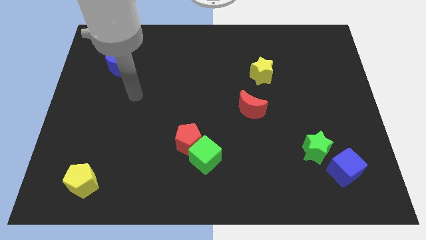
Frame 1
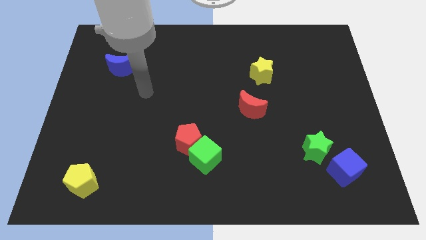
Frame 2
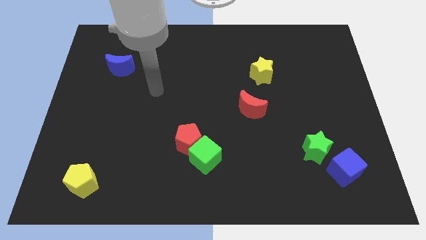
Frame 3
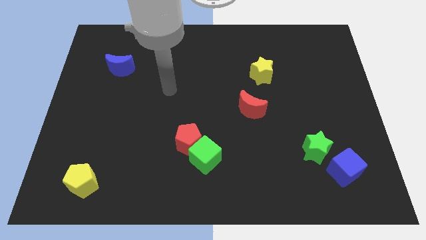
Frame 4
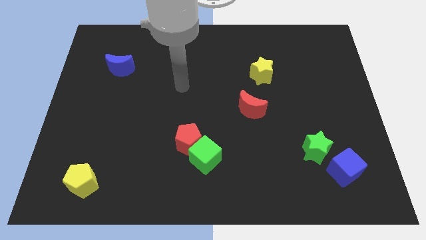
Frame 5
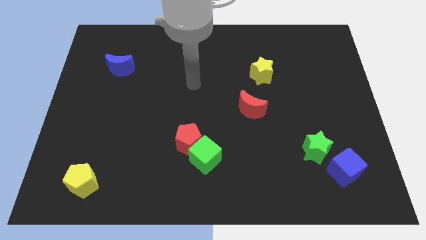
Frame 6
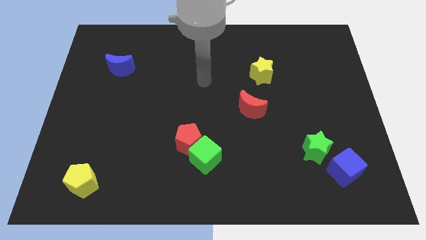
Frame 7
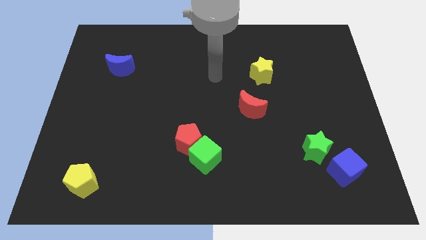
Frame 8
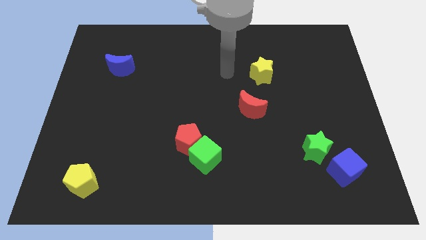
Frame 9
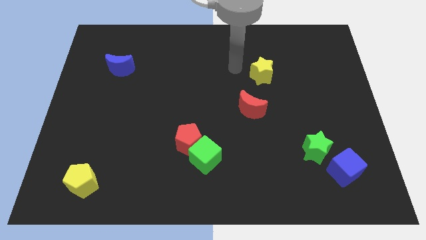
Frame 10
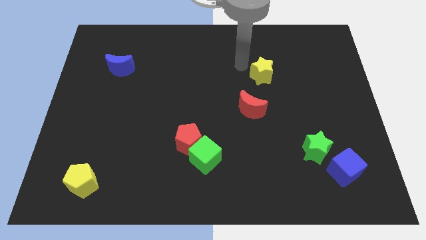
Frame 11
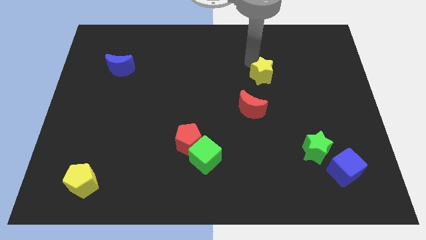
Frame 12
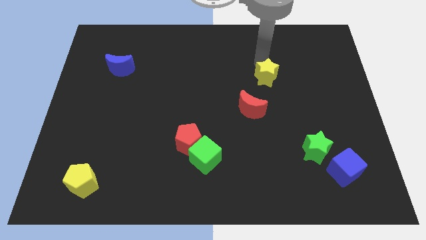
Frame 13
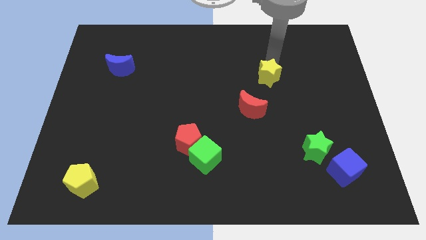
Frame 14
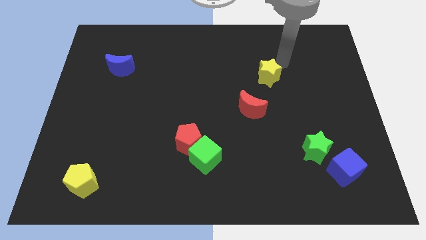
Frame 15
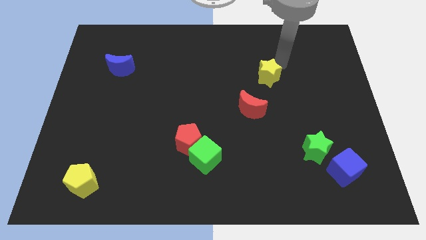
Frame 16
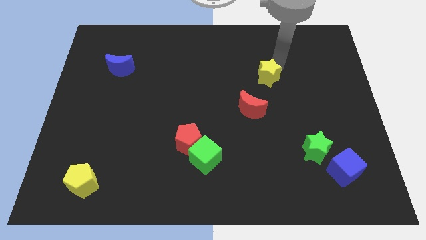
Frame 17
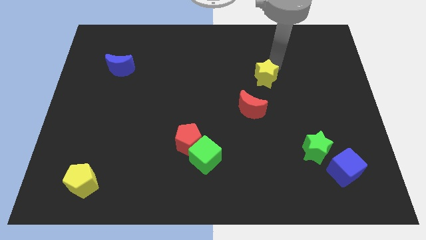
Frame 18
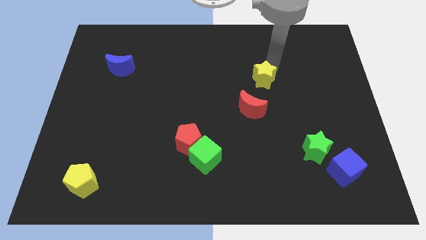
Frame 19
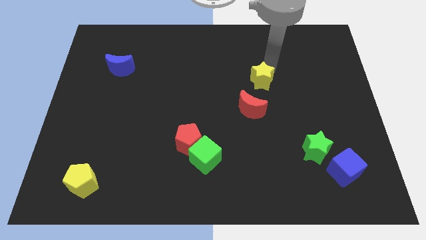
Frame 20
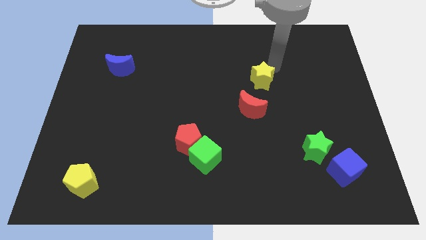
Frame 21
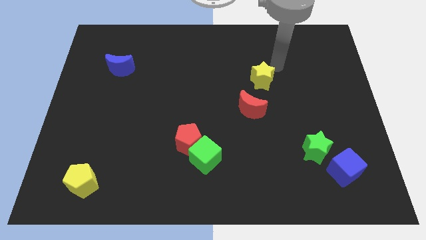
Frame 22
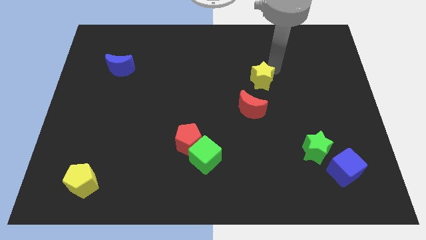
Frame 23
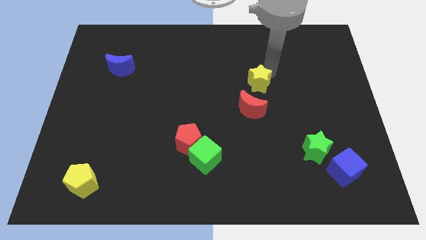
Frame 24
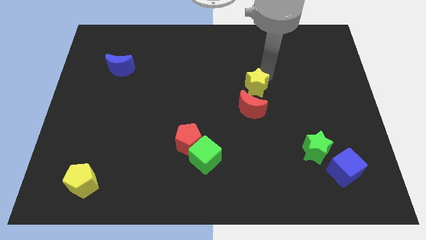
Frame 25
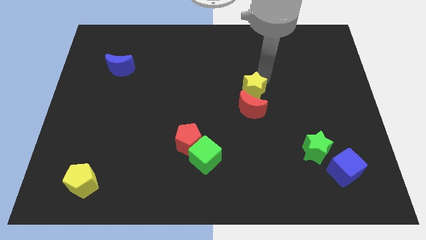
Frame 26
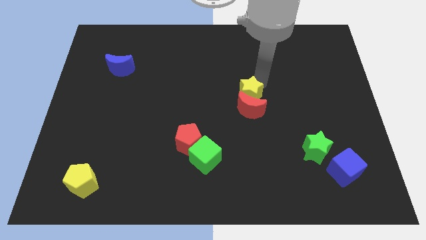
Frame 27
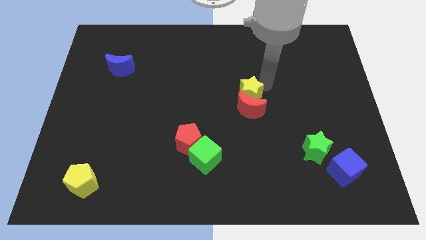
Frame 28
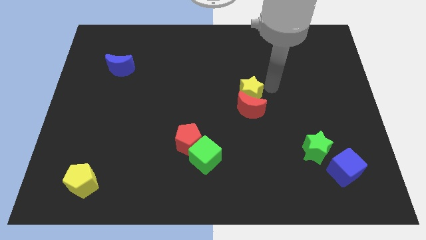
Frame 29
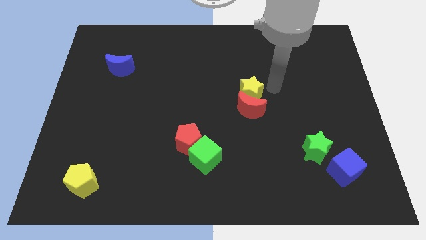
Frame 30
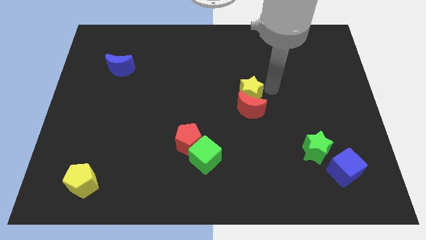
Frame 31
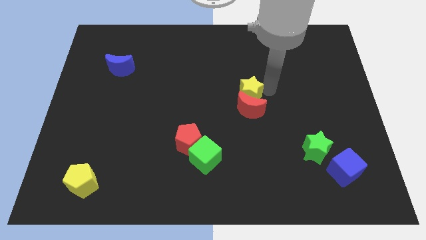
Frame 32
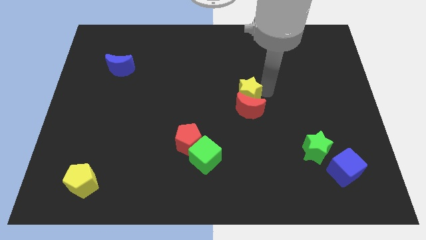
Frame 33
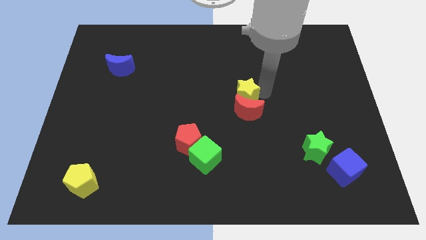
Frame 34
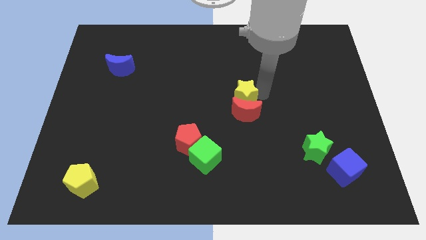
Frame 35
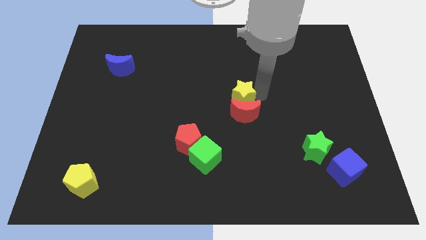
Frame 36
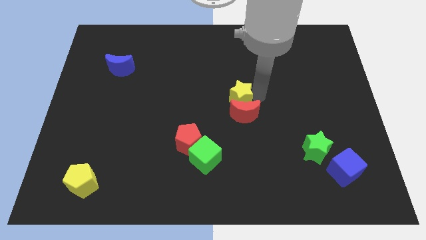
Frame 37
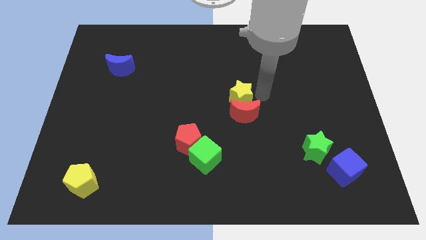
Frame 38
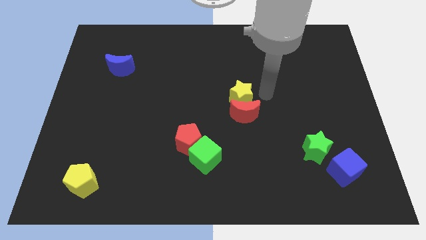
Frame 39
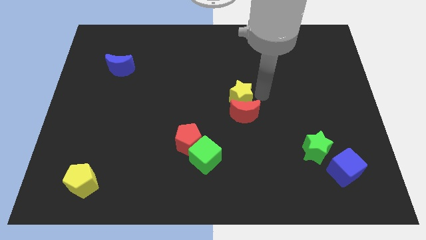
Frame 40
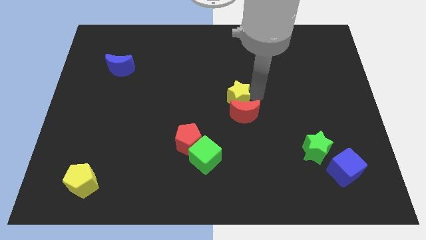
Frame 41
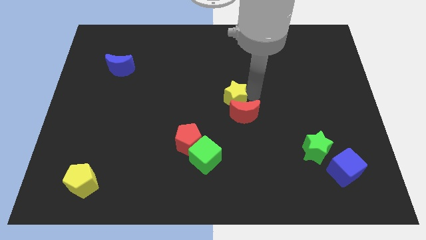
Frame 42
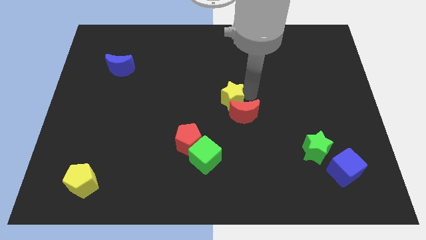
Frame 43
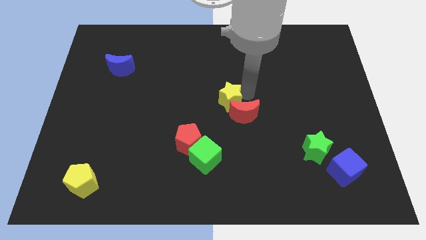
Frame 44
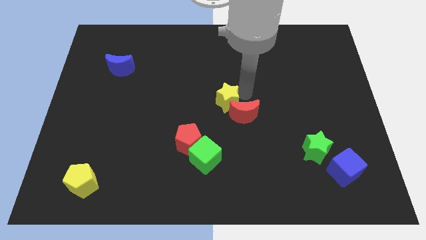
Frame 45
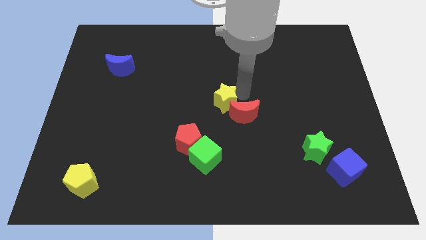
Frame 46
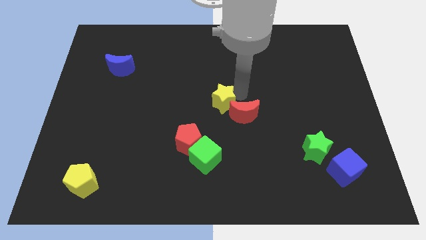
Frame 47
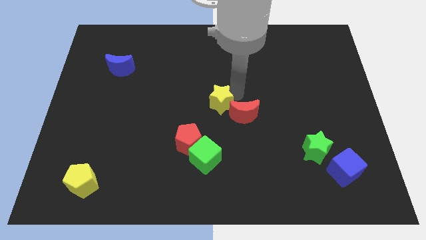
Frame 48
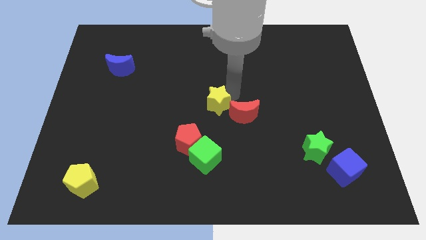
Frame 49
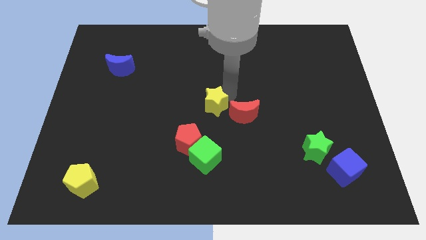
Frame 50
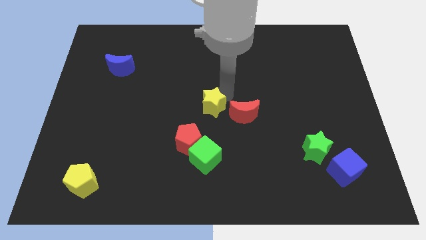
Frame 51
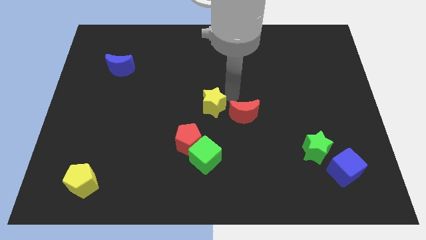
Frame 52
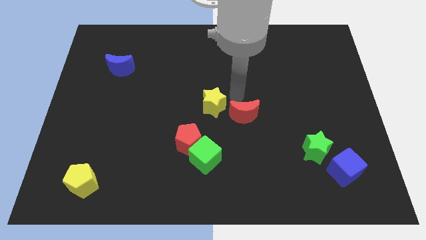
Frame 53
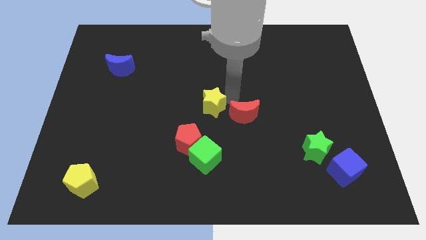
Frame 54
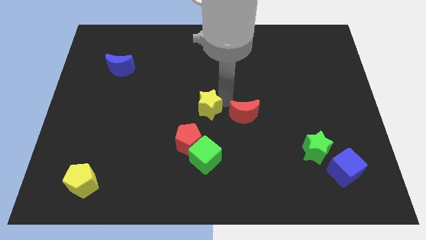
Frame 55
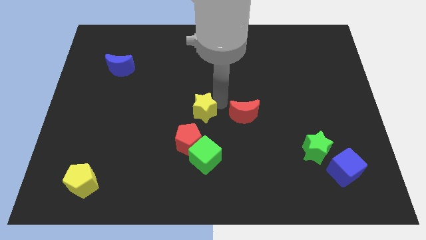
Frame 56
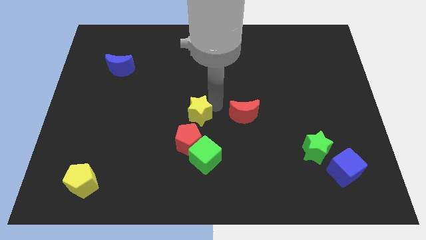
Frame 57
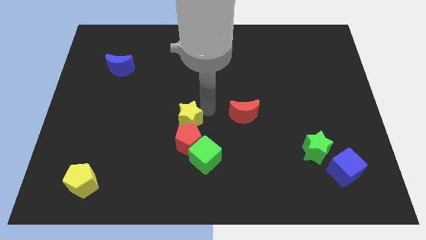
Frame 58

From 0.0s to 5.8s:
put the yellow star diagonally up and to the left of the red pentagon

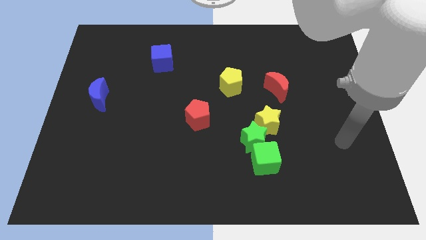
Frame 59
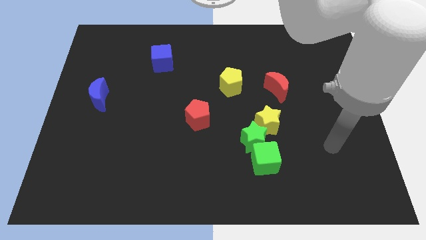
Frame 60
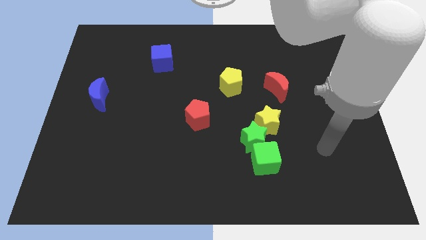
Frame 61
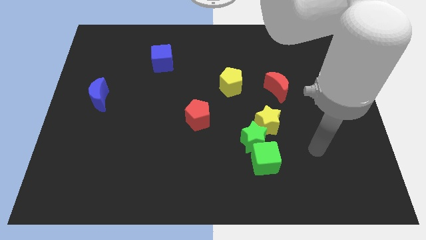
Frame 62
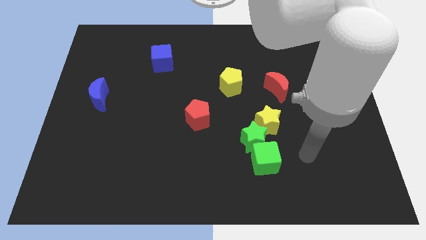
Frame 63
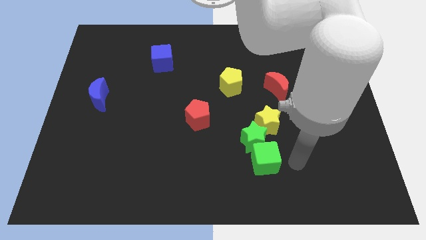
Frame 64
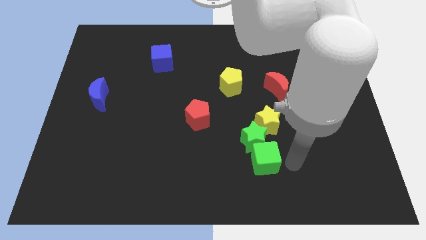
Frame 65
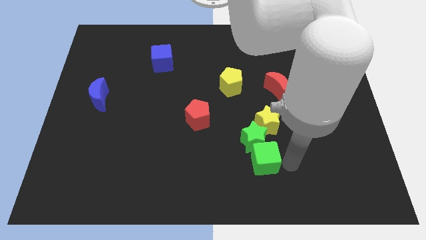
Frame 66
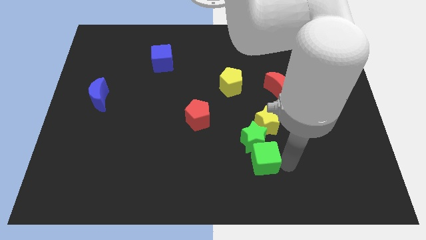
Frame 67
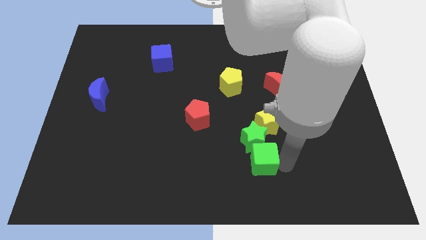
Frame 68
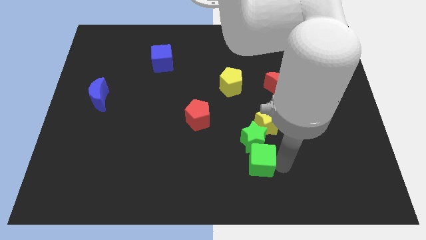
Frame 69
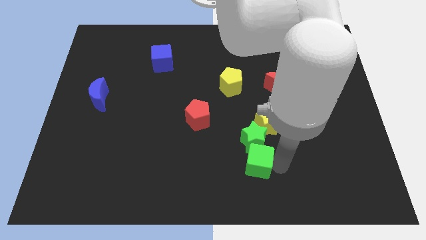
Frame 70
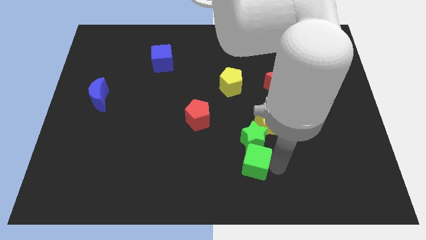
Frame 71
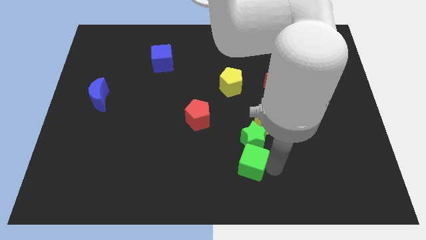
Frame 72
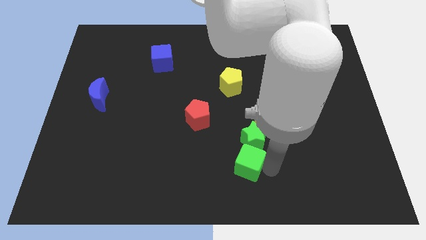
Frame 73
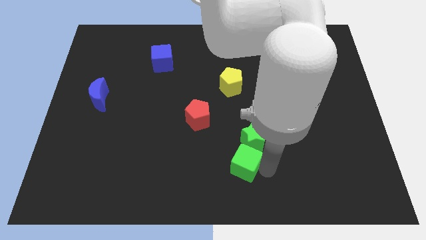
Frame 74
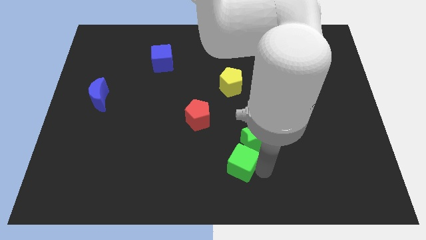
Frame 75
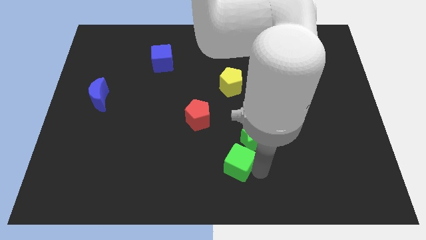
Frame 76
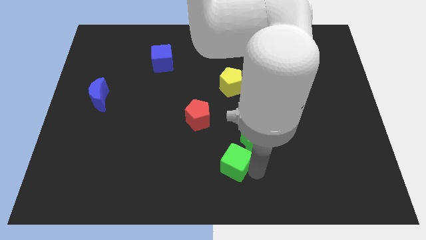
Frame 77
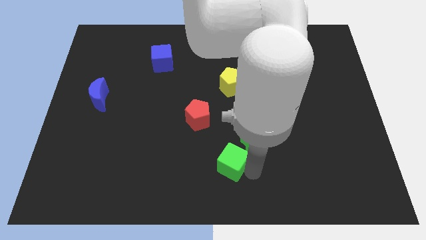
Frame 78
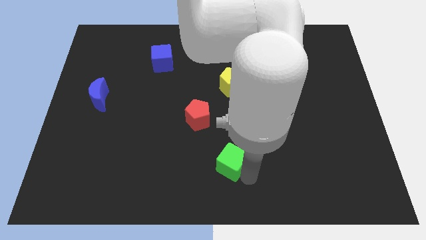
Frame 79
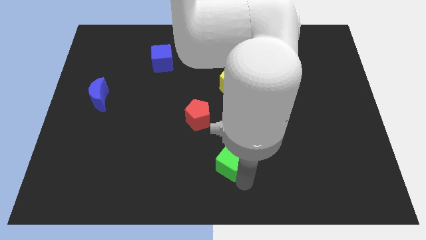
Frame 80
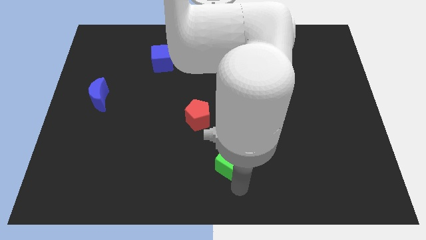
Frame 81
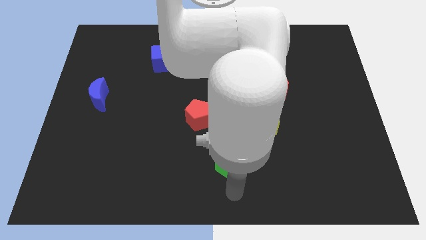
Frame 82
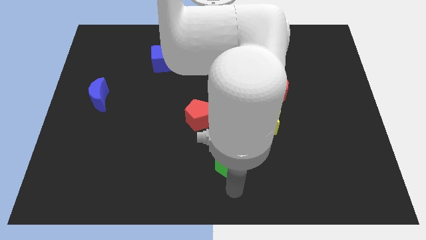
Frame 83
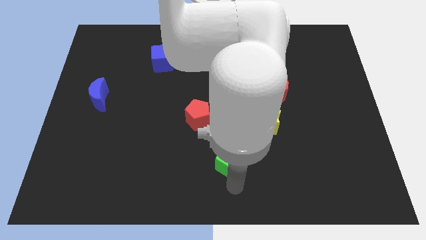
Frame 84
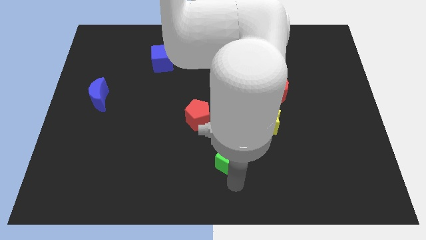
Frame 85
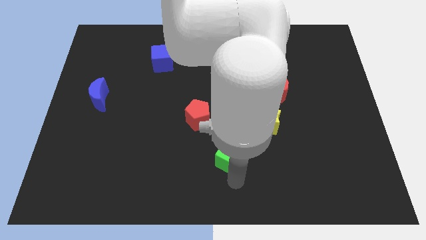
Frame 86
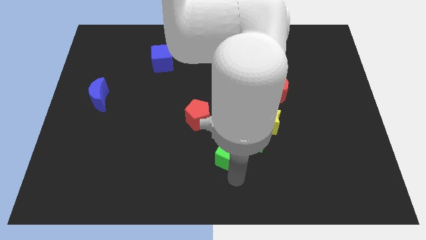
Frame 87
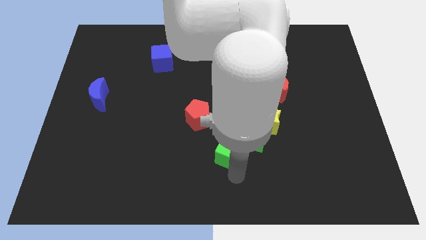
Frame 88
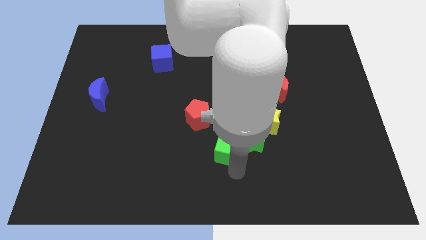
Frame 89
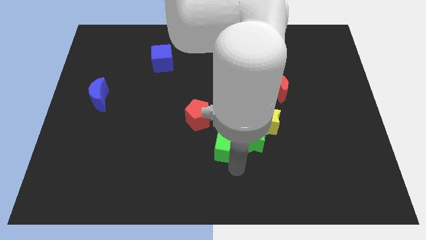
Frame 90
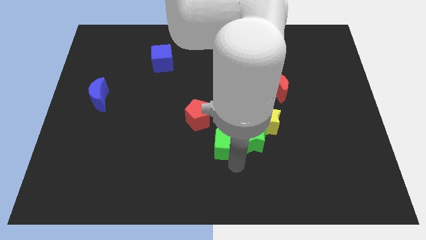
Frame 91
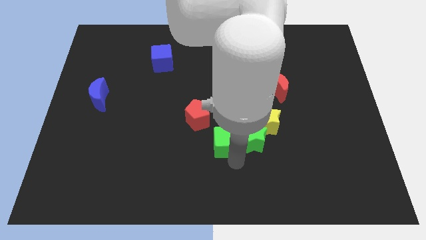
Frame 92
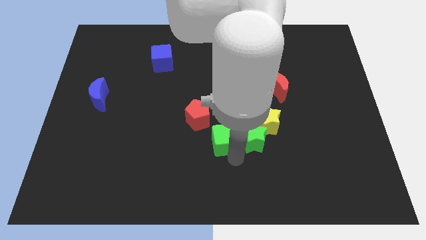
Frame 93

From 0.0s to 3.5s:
push the green cube just left of the yellow star
